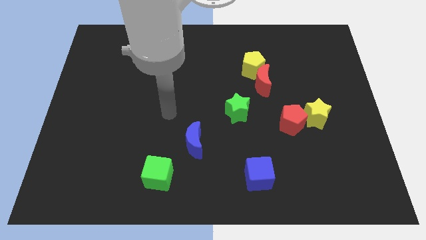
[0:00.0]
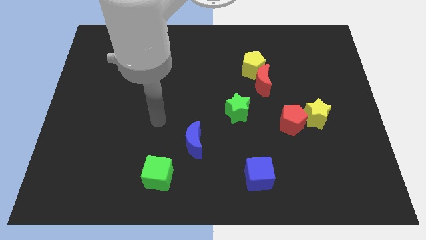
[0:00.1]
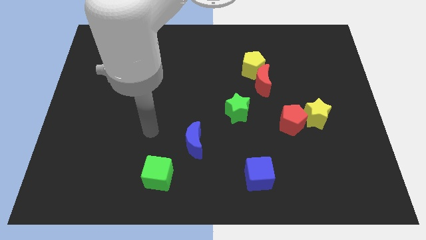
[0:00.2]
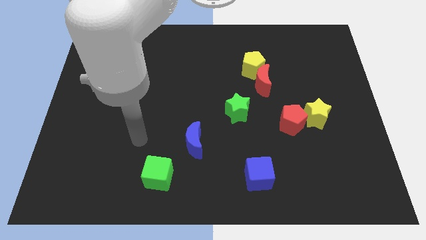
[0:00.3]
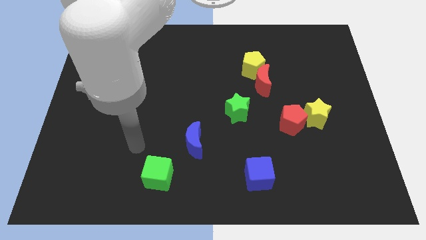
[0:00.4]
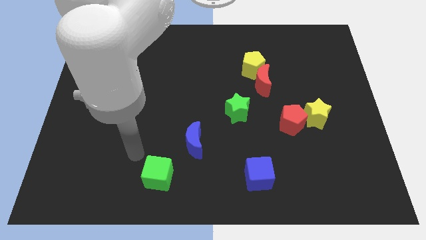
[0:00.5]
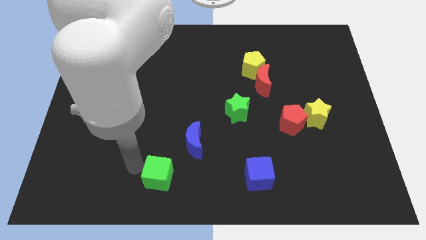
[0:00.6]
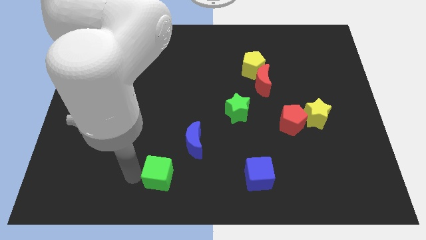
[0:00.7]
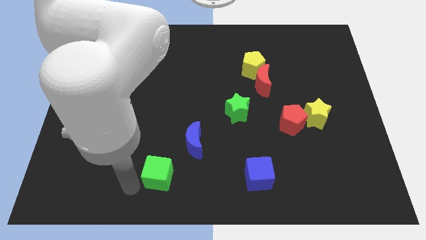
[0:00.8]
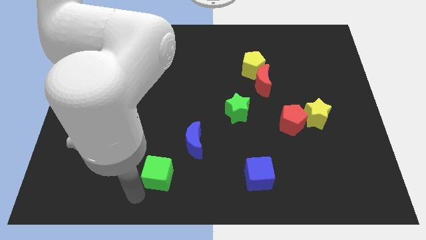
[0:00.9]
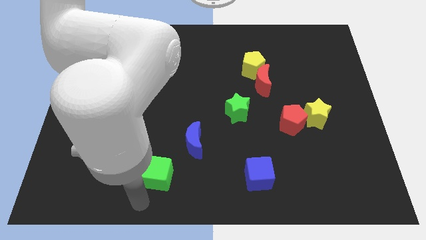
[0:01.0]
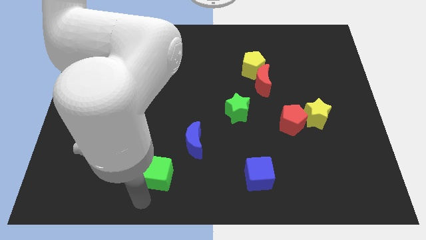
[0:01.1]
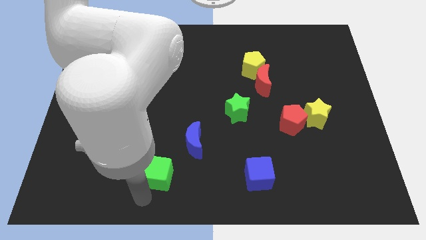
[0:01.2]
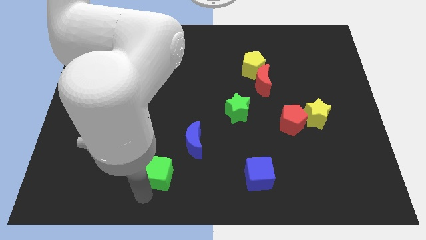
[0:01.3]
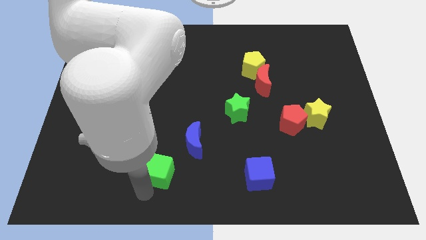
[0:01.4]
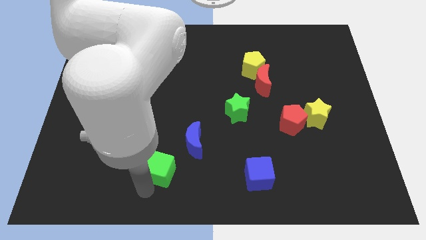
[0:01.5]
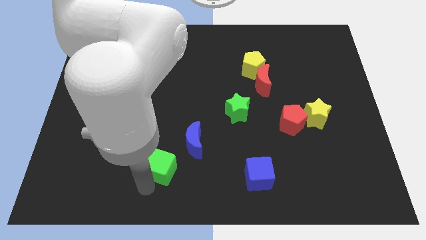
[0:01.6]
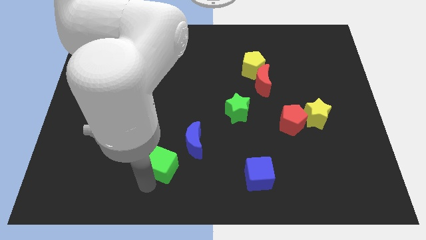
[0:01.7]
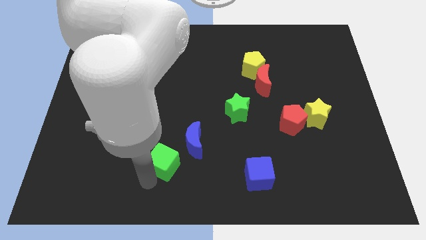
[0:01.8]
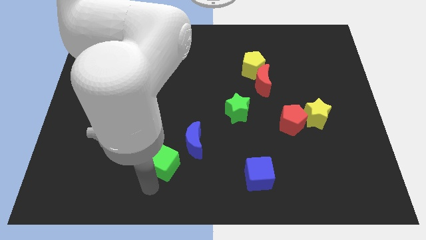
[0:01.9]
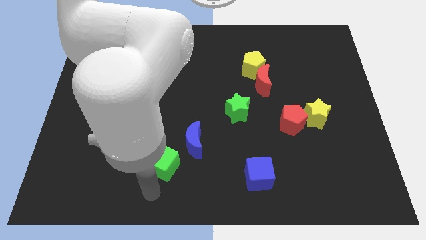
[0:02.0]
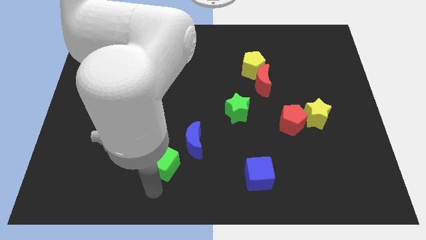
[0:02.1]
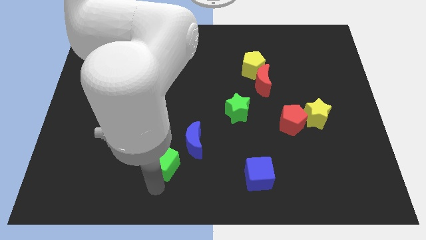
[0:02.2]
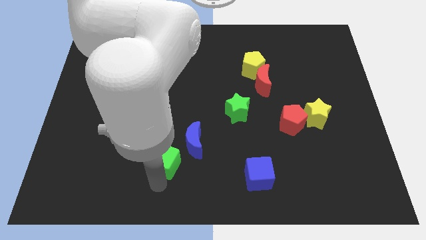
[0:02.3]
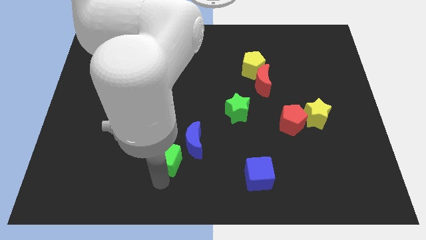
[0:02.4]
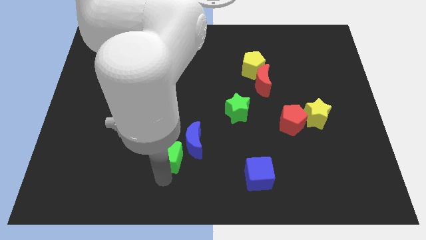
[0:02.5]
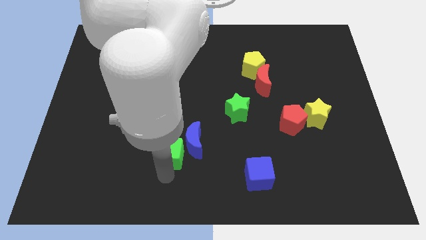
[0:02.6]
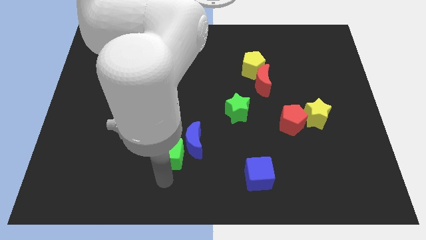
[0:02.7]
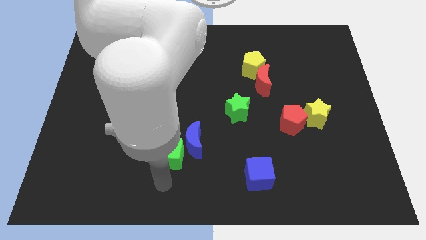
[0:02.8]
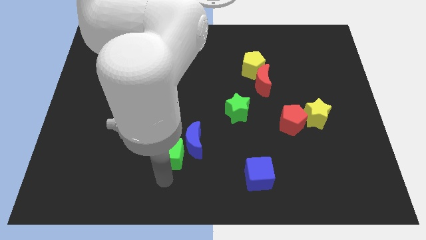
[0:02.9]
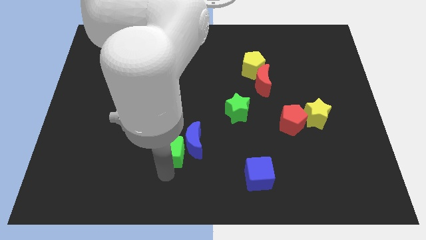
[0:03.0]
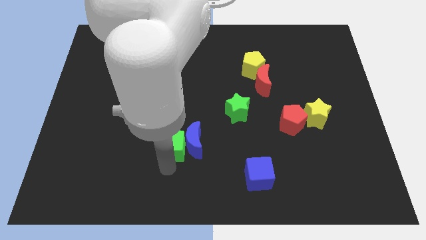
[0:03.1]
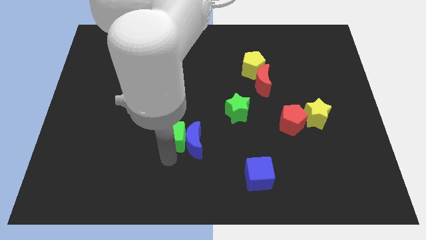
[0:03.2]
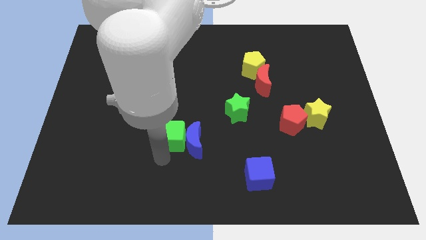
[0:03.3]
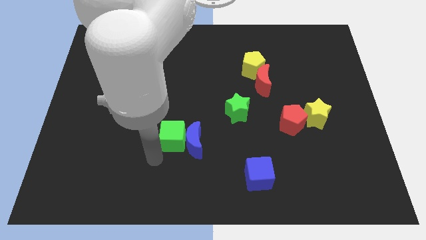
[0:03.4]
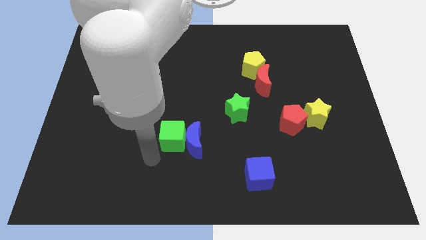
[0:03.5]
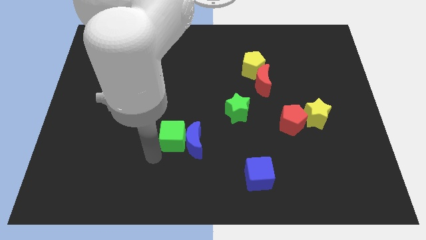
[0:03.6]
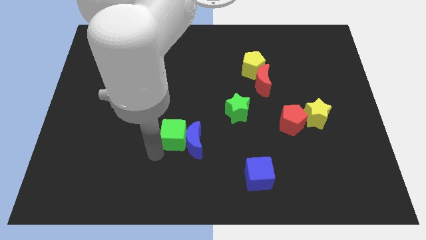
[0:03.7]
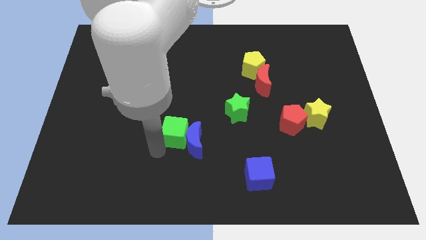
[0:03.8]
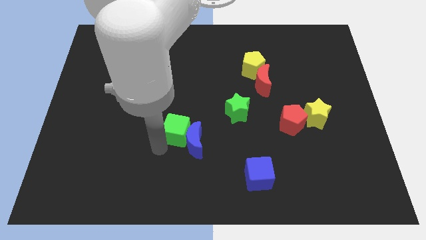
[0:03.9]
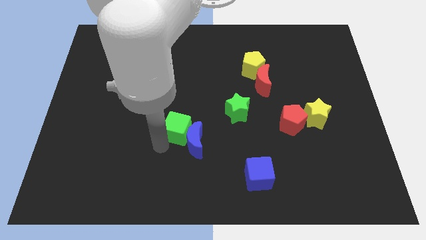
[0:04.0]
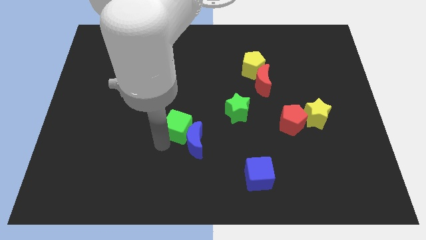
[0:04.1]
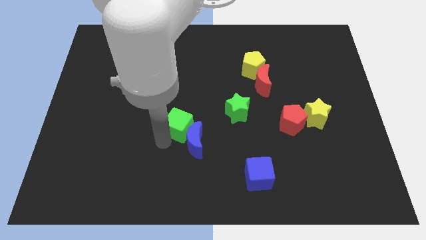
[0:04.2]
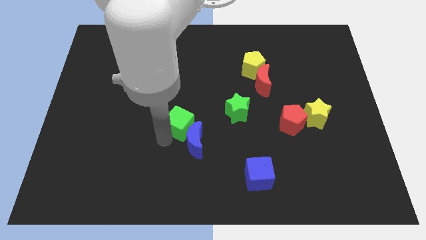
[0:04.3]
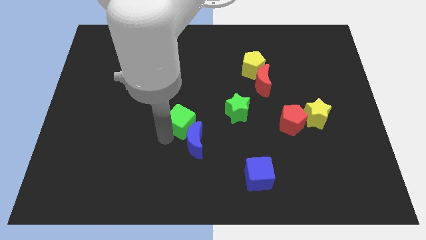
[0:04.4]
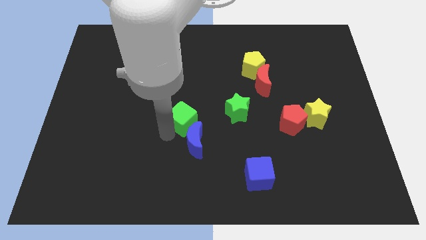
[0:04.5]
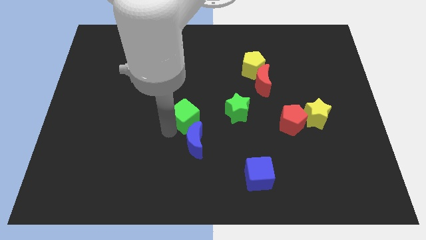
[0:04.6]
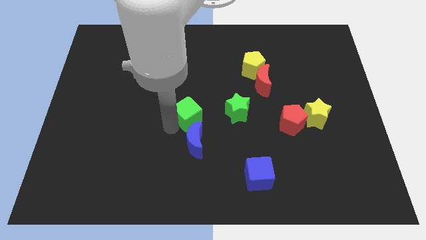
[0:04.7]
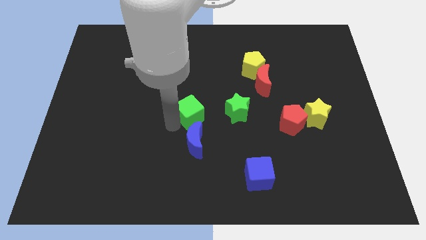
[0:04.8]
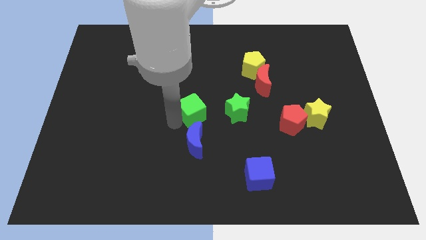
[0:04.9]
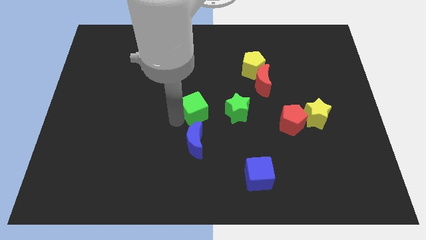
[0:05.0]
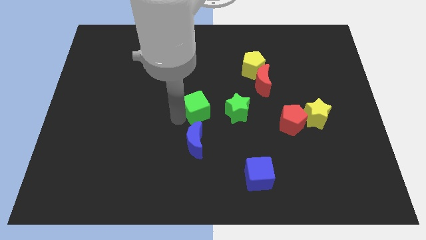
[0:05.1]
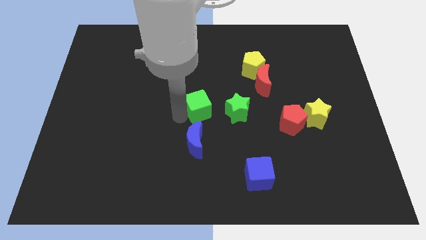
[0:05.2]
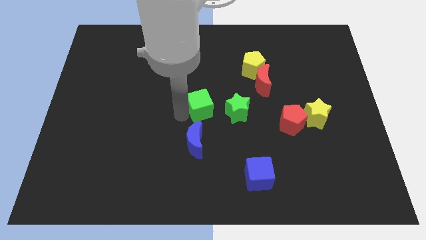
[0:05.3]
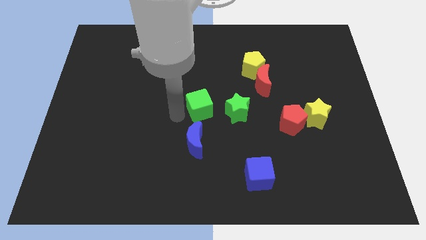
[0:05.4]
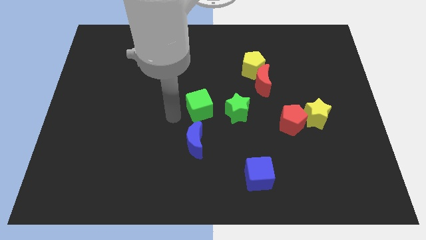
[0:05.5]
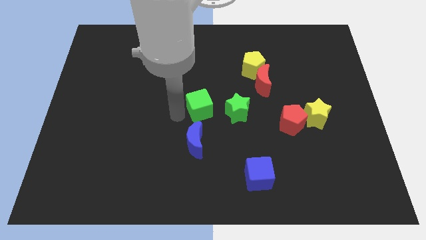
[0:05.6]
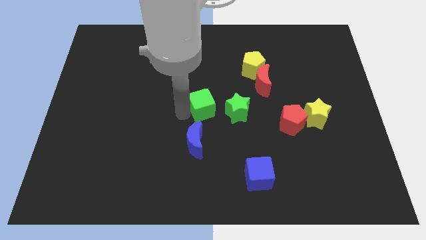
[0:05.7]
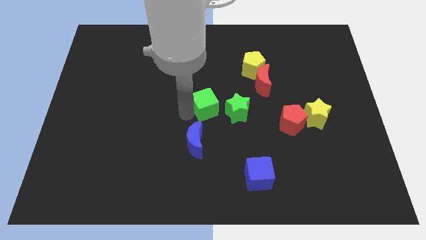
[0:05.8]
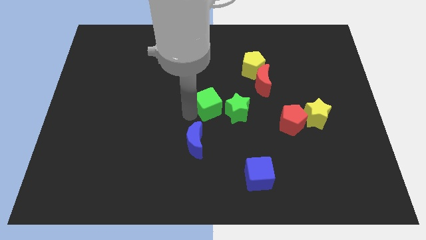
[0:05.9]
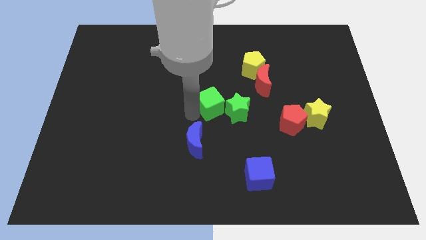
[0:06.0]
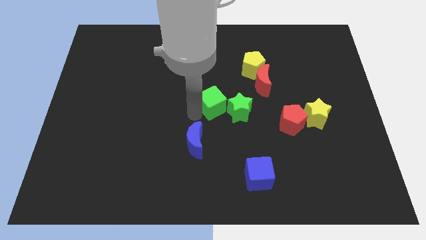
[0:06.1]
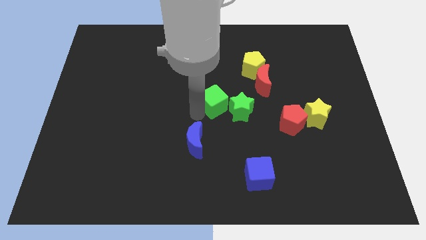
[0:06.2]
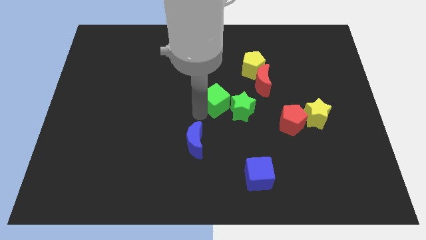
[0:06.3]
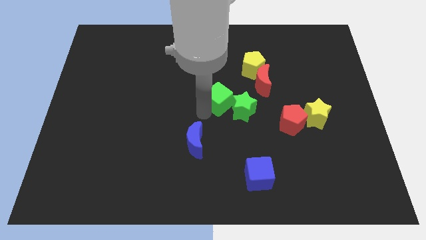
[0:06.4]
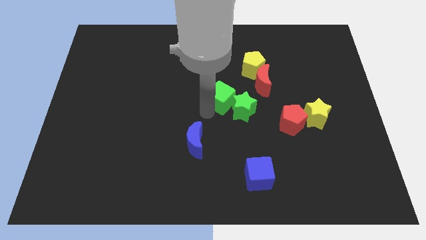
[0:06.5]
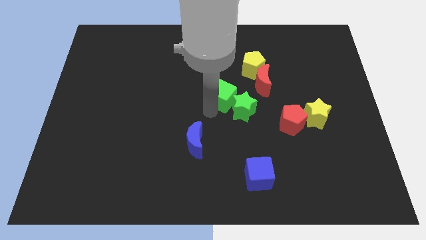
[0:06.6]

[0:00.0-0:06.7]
move the green cube diagonally down and to the left of the yellow pentagon
